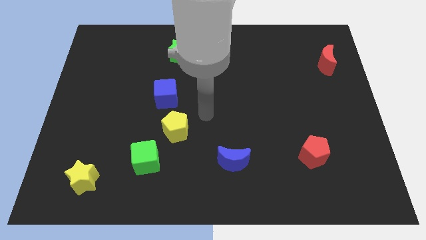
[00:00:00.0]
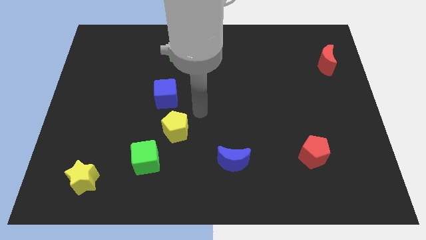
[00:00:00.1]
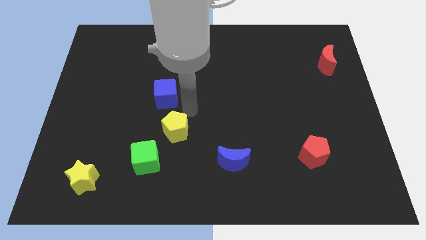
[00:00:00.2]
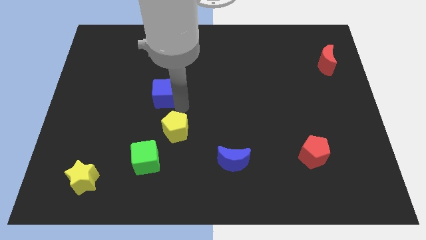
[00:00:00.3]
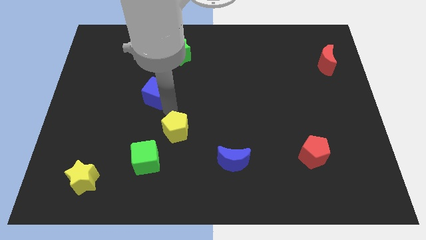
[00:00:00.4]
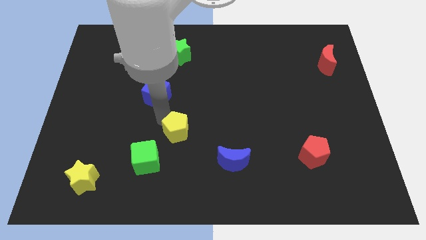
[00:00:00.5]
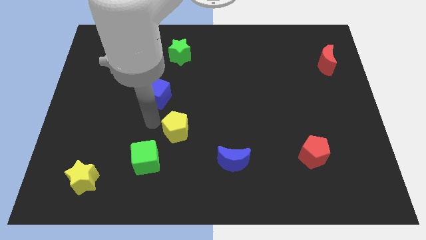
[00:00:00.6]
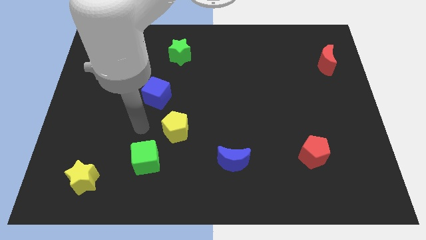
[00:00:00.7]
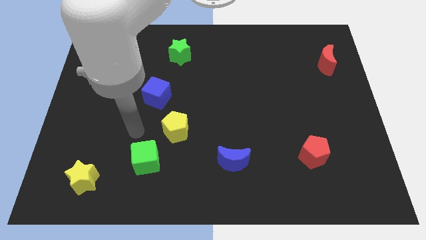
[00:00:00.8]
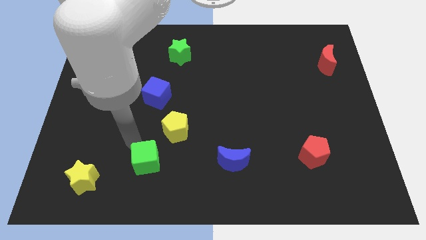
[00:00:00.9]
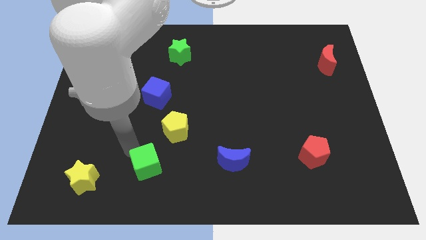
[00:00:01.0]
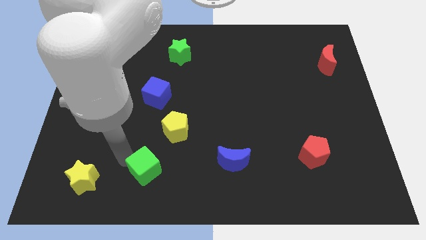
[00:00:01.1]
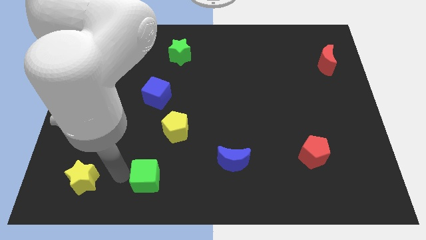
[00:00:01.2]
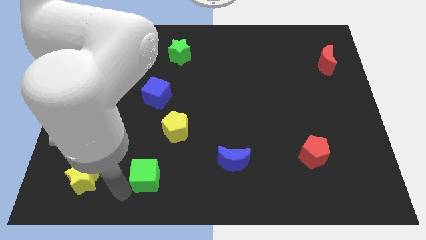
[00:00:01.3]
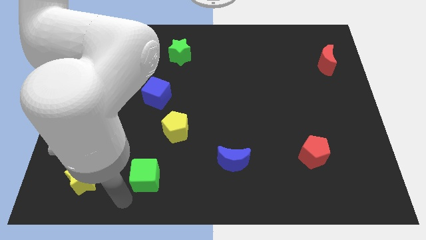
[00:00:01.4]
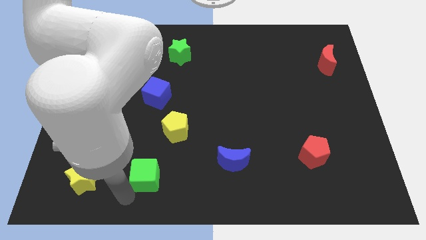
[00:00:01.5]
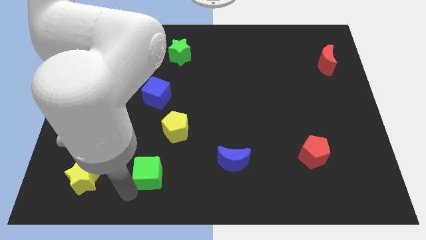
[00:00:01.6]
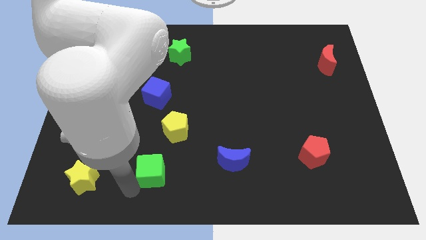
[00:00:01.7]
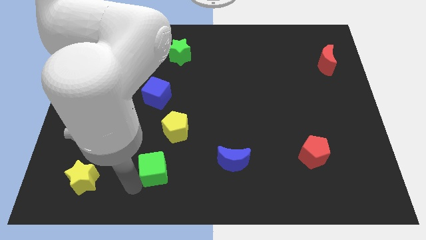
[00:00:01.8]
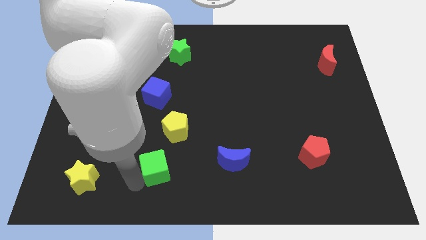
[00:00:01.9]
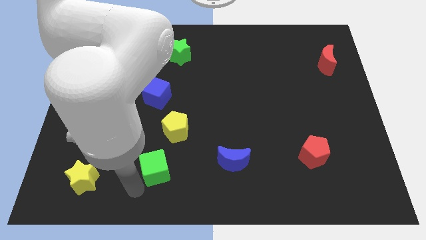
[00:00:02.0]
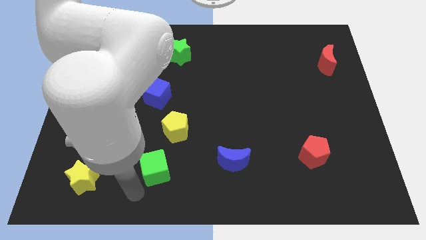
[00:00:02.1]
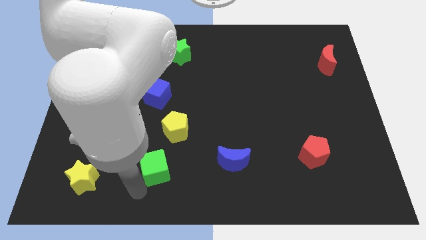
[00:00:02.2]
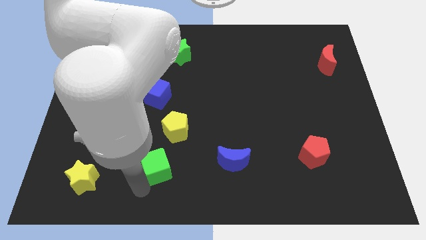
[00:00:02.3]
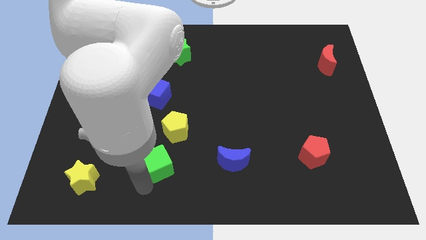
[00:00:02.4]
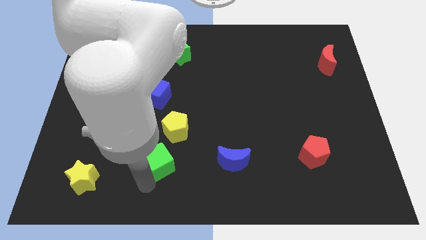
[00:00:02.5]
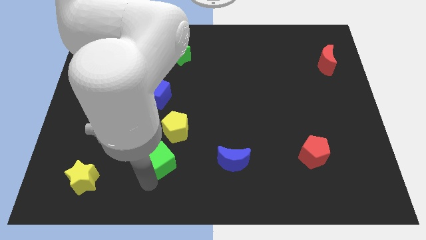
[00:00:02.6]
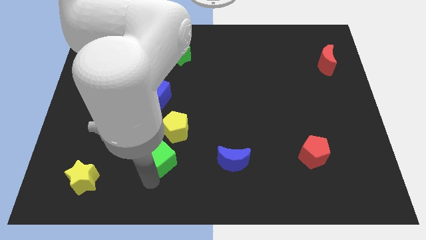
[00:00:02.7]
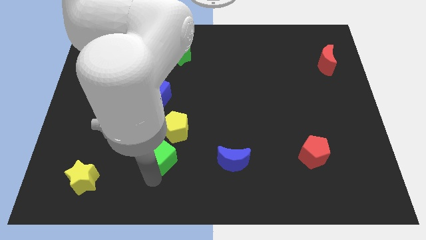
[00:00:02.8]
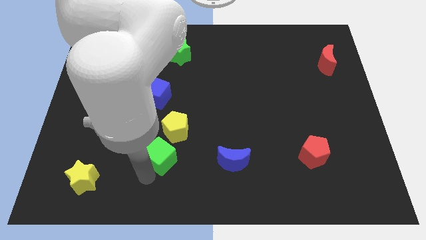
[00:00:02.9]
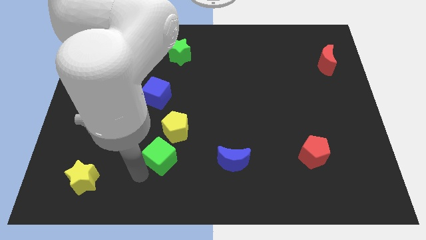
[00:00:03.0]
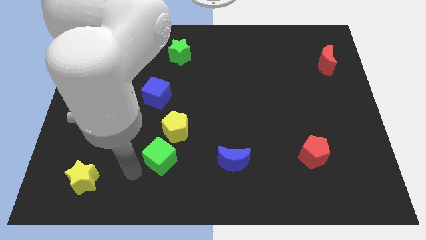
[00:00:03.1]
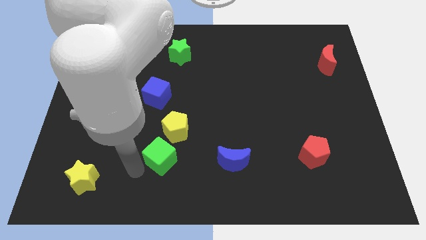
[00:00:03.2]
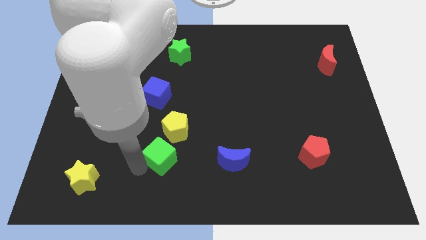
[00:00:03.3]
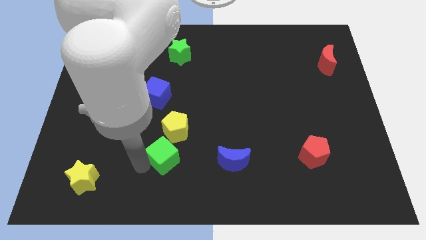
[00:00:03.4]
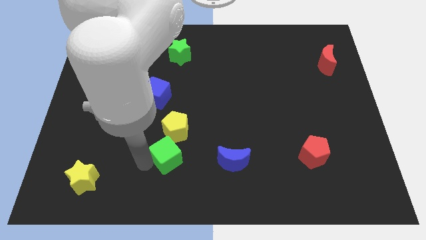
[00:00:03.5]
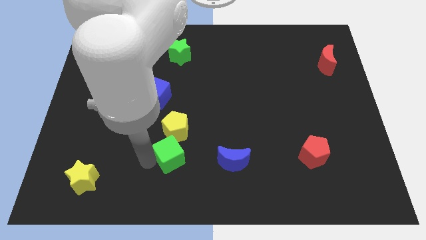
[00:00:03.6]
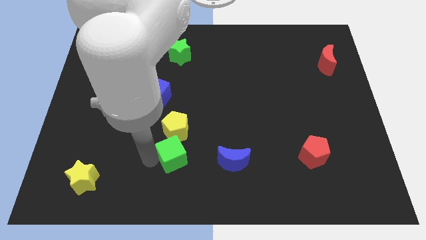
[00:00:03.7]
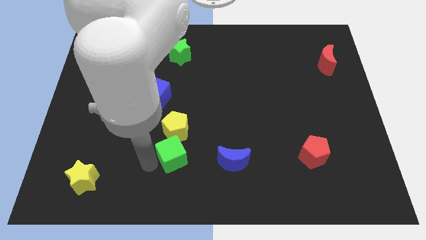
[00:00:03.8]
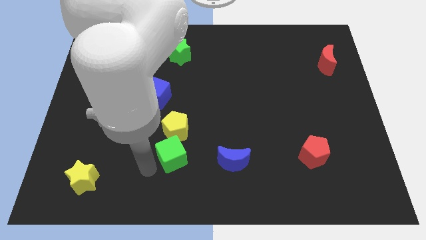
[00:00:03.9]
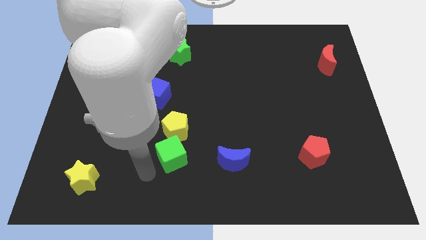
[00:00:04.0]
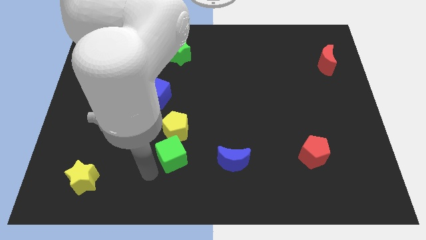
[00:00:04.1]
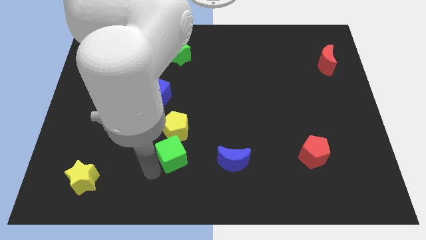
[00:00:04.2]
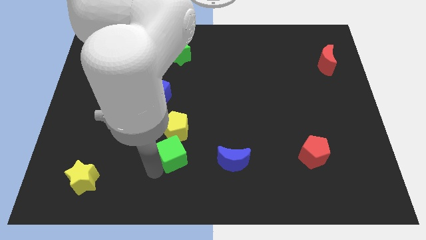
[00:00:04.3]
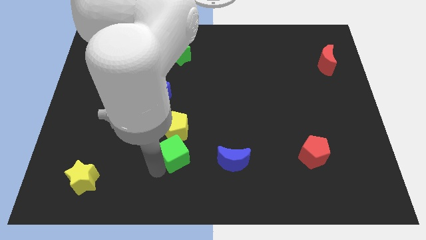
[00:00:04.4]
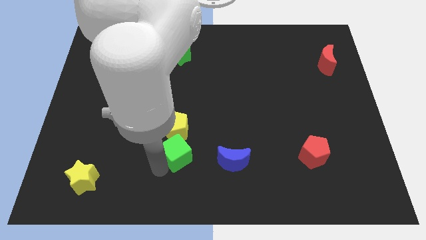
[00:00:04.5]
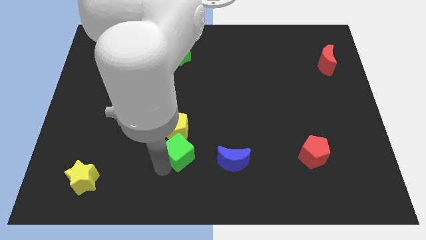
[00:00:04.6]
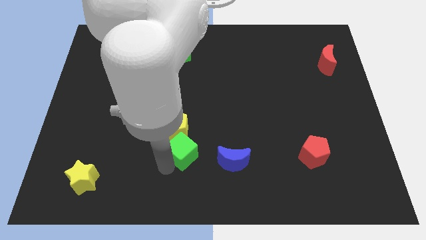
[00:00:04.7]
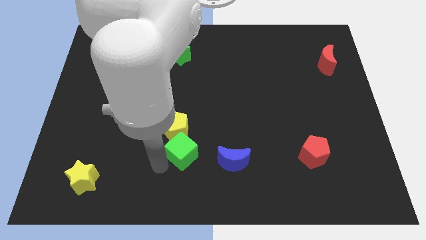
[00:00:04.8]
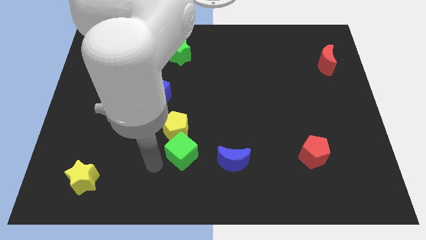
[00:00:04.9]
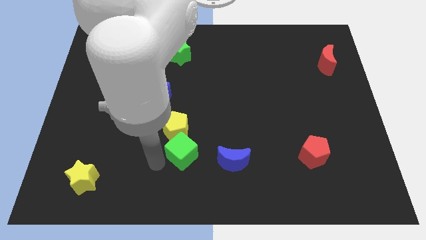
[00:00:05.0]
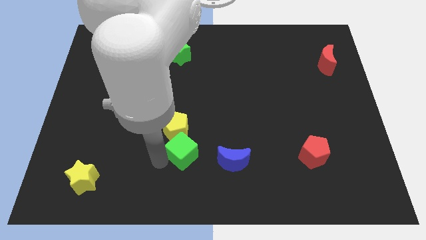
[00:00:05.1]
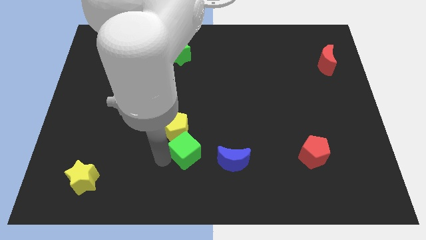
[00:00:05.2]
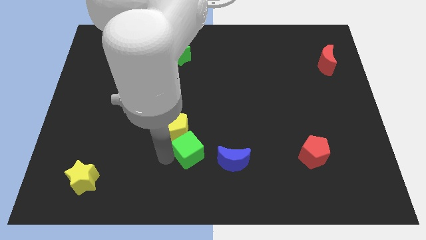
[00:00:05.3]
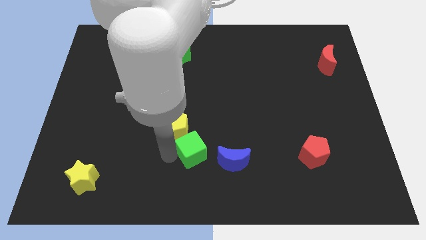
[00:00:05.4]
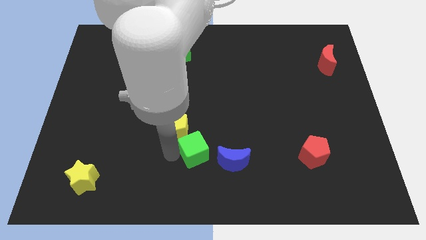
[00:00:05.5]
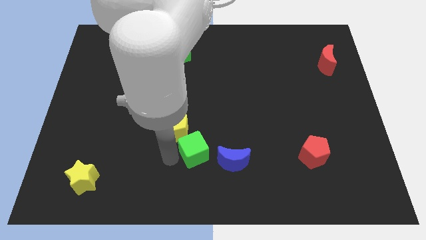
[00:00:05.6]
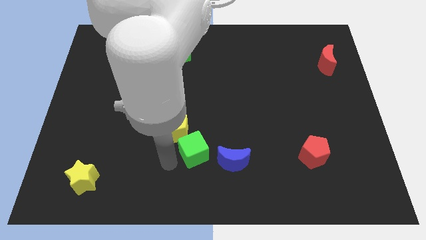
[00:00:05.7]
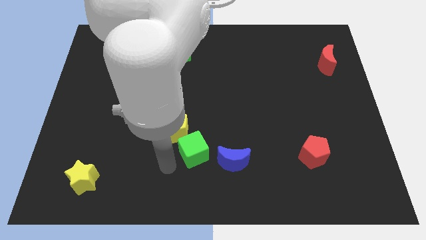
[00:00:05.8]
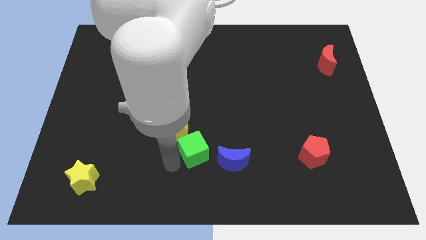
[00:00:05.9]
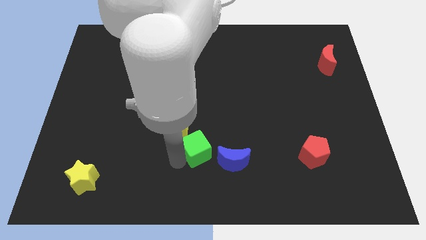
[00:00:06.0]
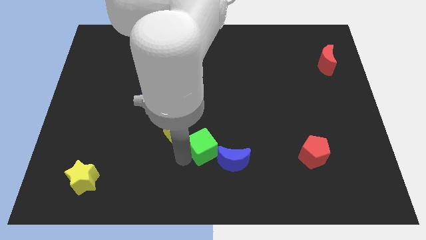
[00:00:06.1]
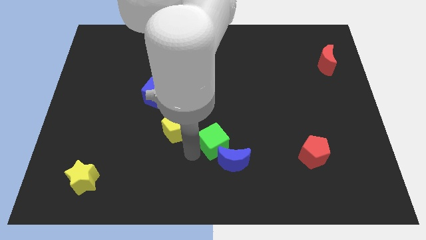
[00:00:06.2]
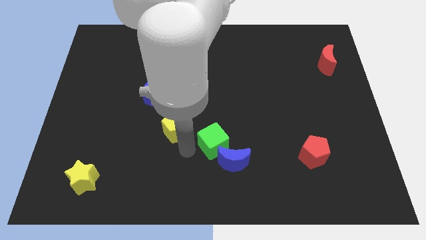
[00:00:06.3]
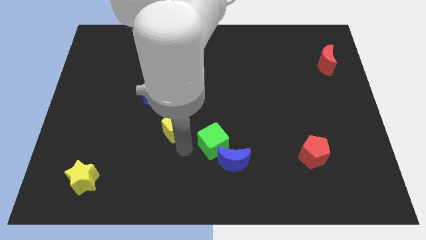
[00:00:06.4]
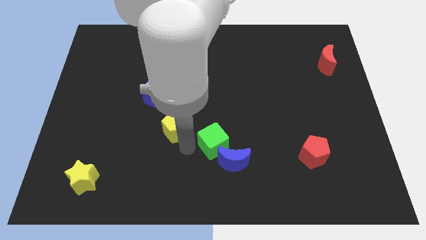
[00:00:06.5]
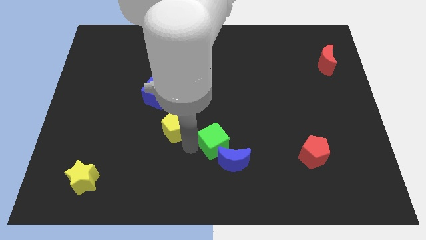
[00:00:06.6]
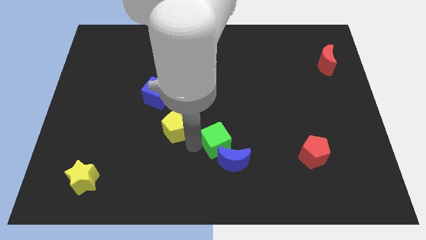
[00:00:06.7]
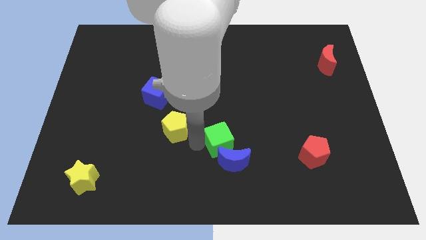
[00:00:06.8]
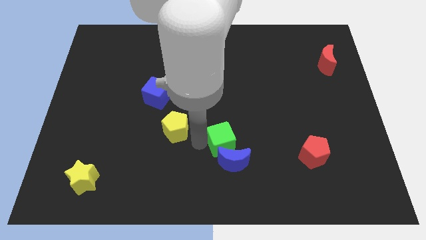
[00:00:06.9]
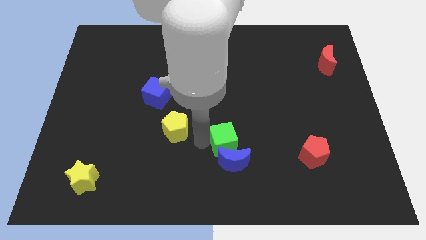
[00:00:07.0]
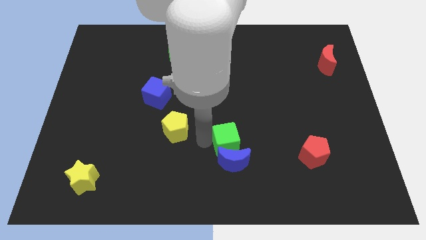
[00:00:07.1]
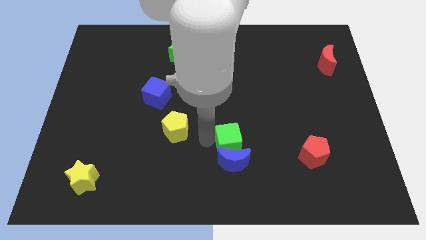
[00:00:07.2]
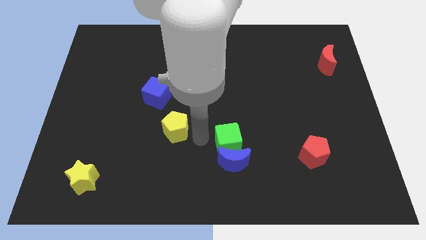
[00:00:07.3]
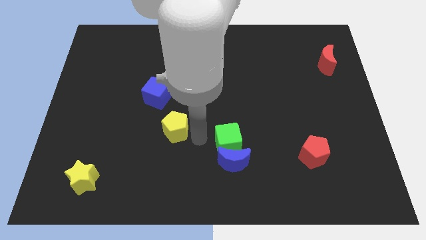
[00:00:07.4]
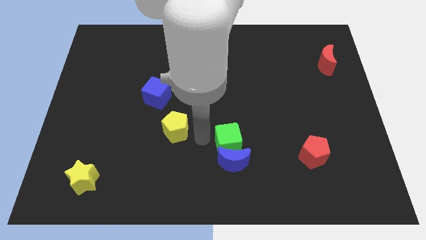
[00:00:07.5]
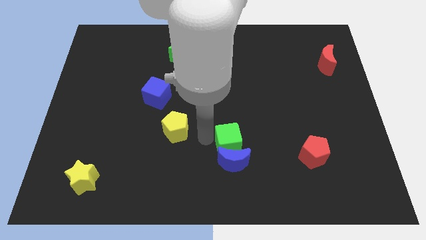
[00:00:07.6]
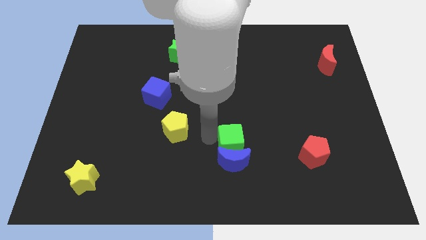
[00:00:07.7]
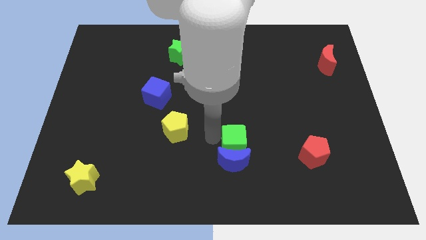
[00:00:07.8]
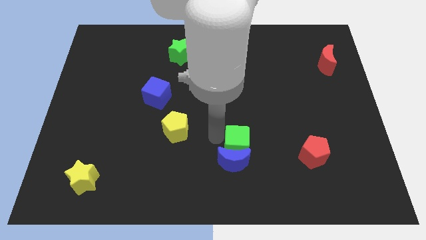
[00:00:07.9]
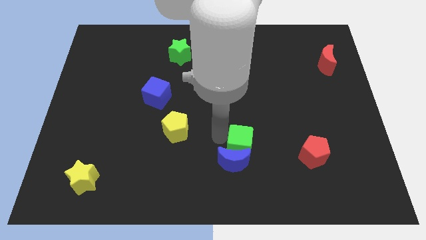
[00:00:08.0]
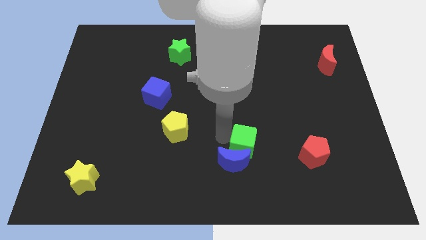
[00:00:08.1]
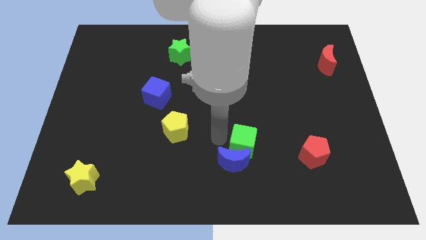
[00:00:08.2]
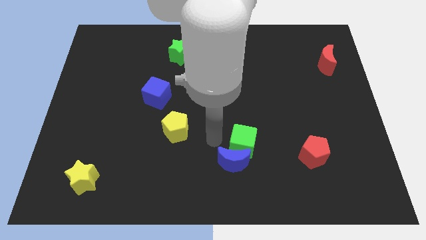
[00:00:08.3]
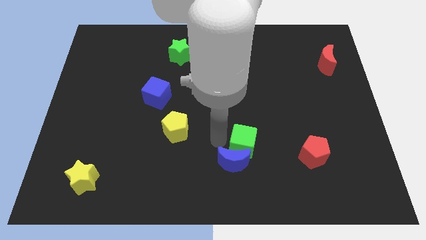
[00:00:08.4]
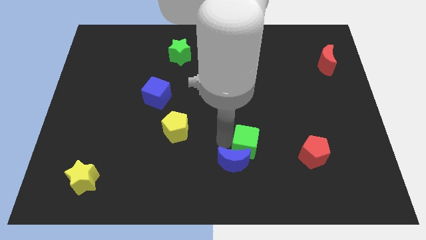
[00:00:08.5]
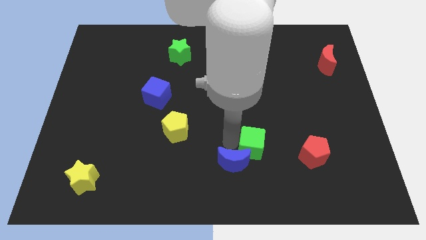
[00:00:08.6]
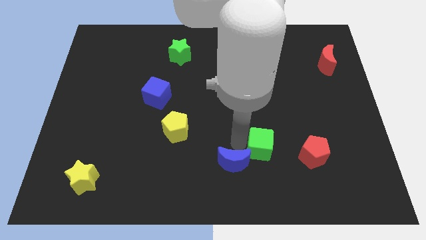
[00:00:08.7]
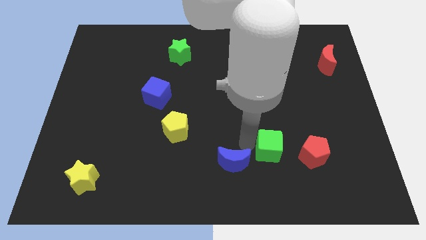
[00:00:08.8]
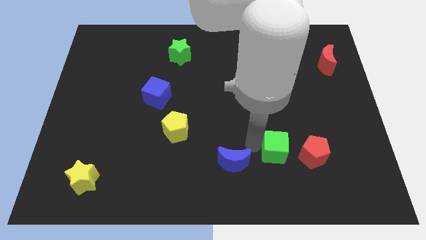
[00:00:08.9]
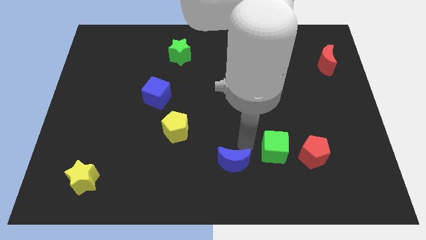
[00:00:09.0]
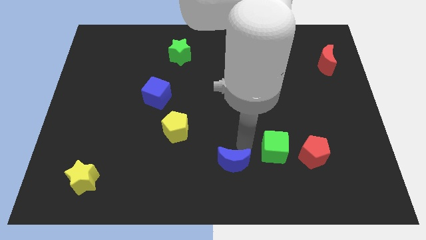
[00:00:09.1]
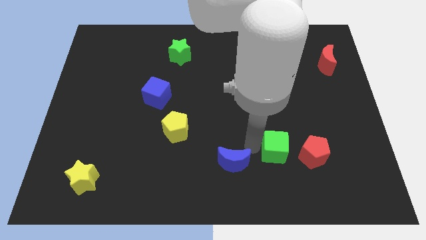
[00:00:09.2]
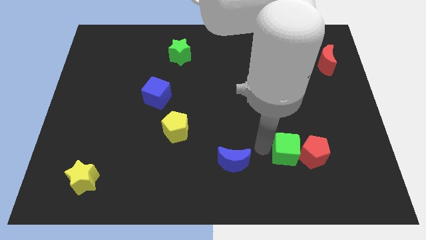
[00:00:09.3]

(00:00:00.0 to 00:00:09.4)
put the green cube close to the red pentagon
